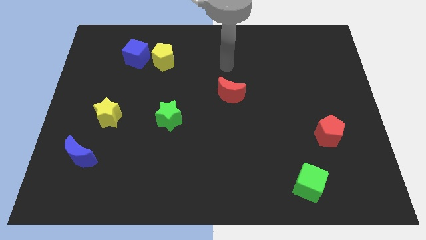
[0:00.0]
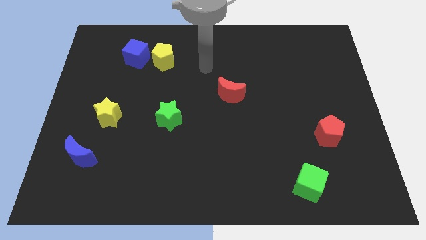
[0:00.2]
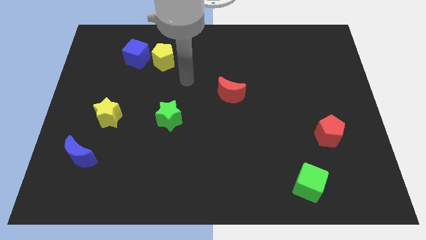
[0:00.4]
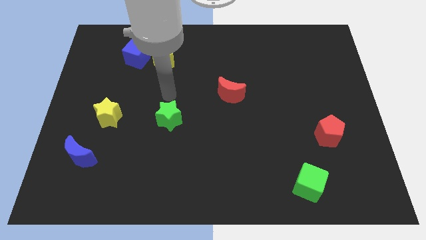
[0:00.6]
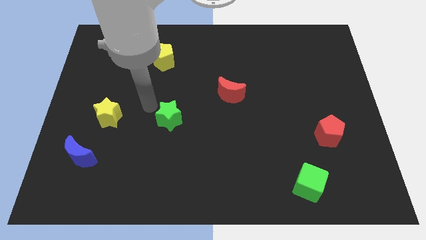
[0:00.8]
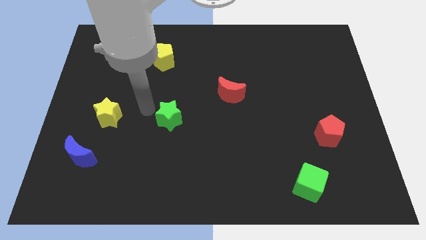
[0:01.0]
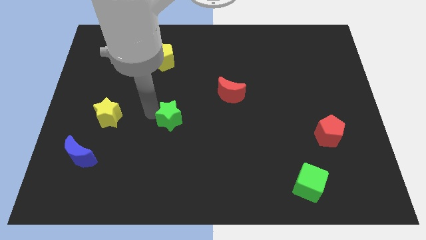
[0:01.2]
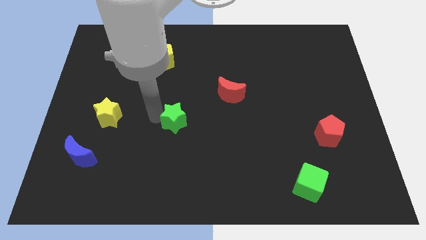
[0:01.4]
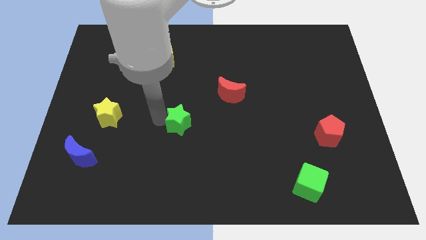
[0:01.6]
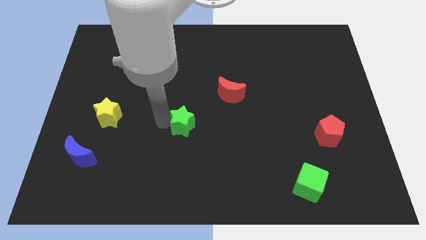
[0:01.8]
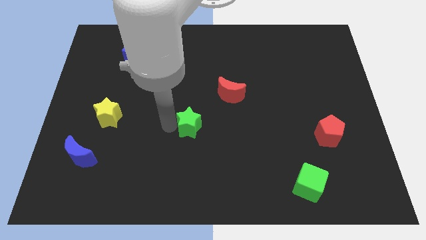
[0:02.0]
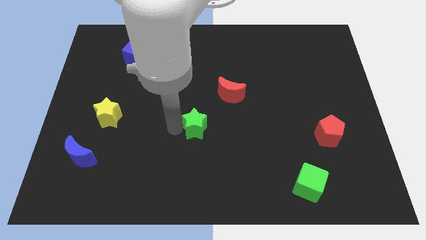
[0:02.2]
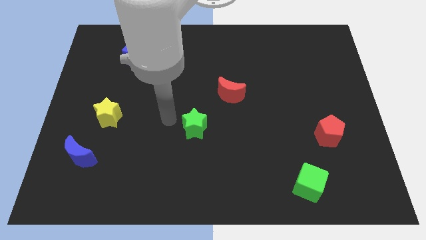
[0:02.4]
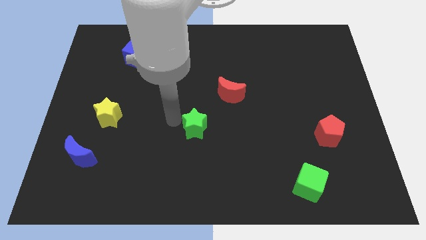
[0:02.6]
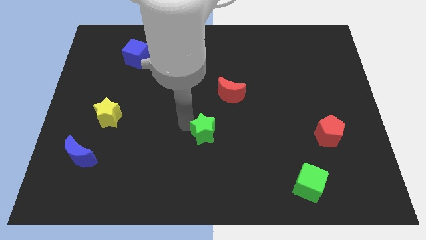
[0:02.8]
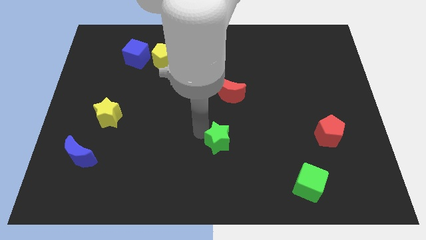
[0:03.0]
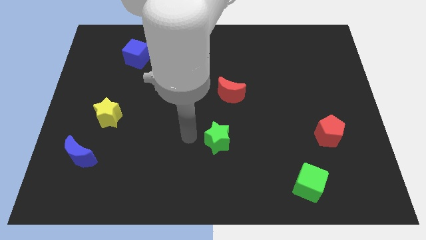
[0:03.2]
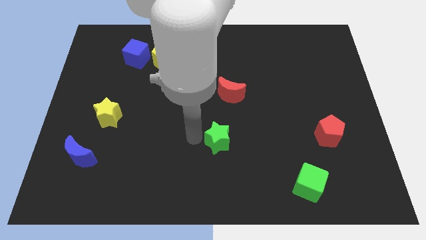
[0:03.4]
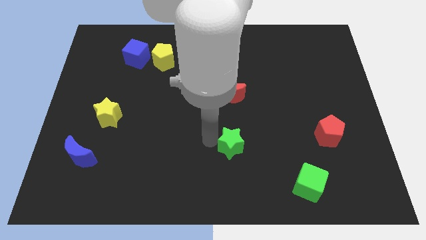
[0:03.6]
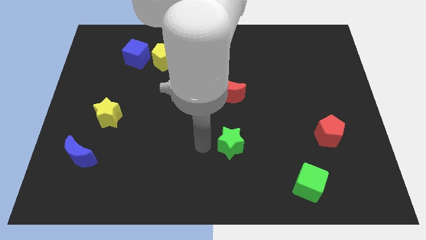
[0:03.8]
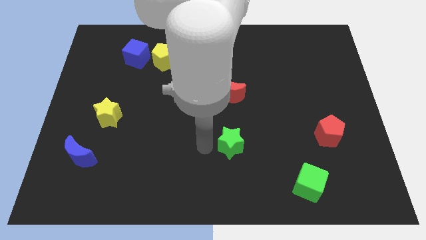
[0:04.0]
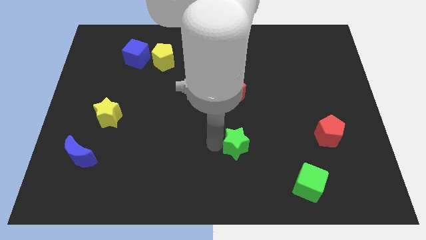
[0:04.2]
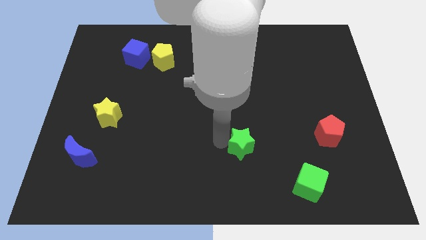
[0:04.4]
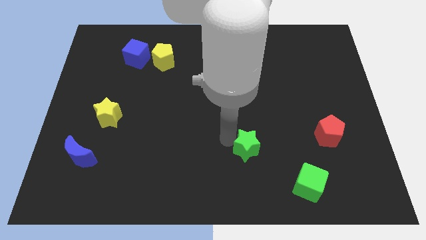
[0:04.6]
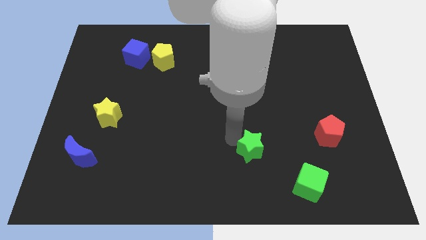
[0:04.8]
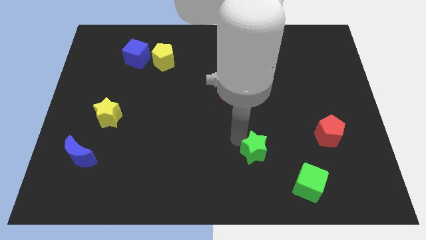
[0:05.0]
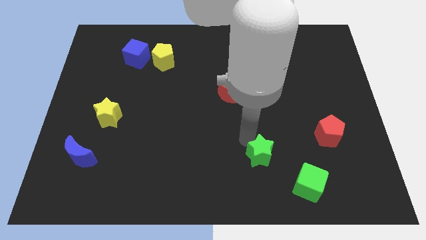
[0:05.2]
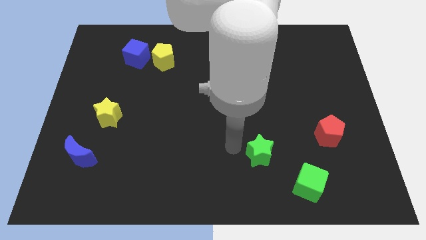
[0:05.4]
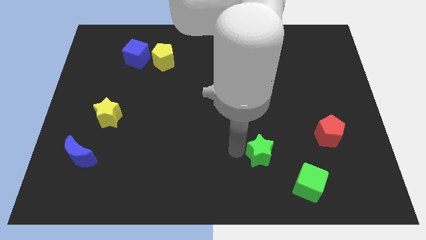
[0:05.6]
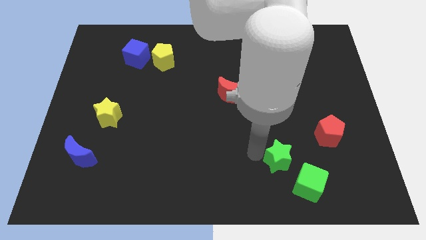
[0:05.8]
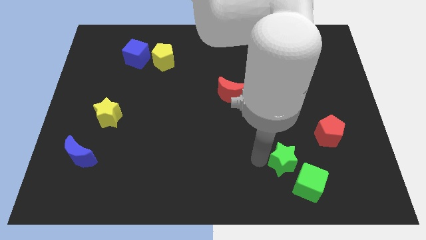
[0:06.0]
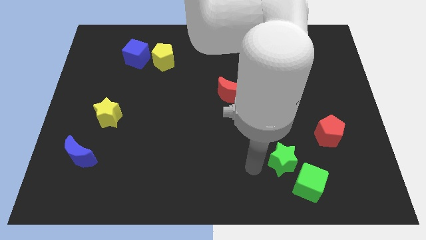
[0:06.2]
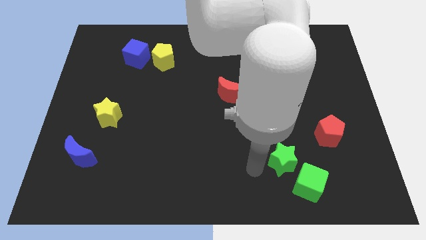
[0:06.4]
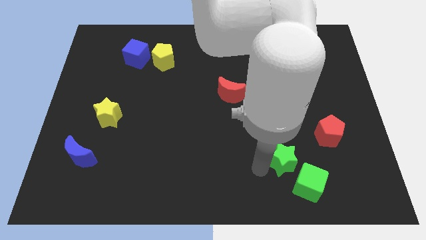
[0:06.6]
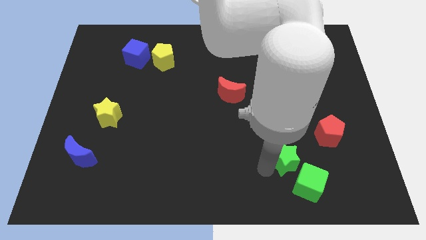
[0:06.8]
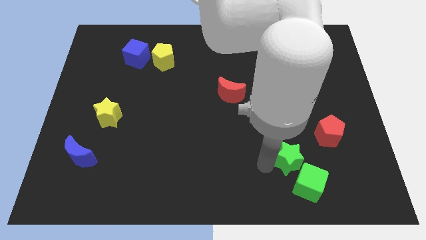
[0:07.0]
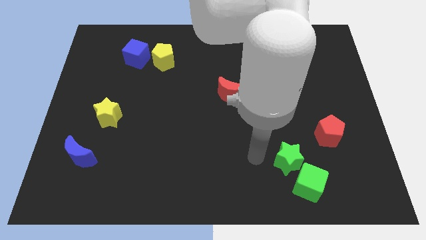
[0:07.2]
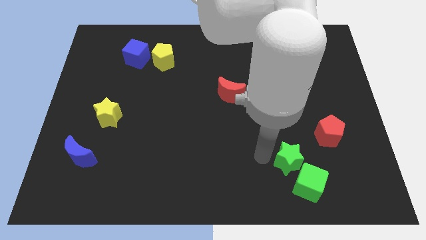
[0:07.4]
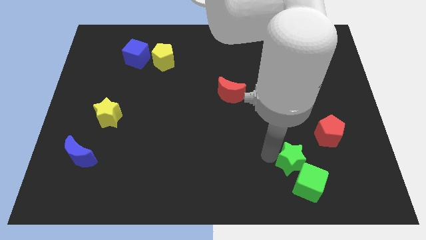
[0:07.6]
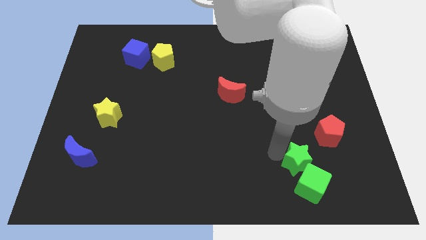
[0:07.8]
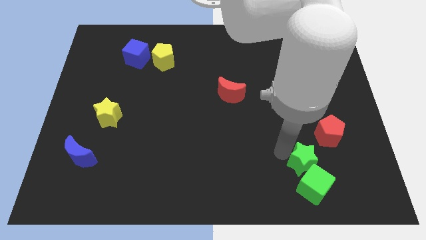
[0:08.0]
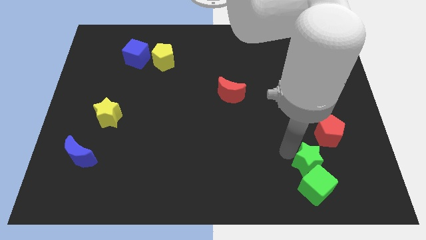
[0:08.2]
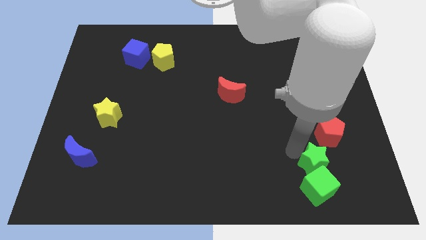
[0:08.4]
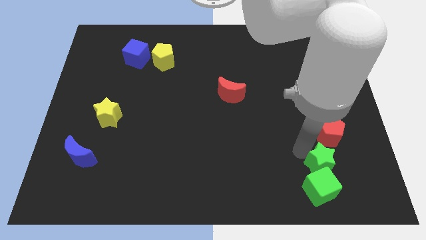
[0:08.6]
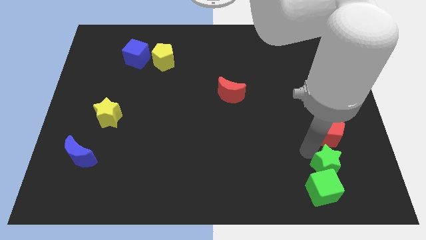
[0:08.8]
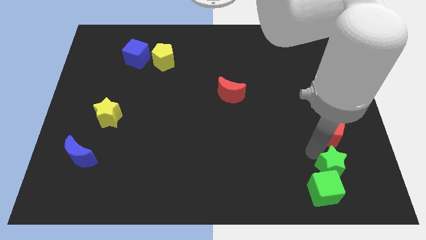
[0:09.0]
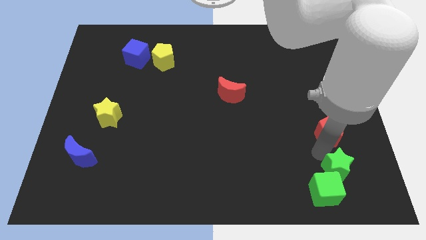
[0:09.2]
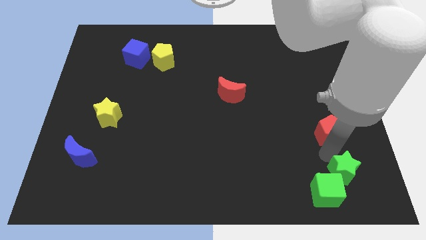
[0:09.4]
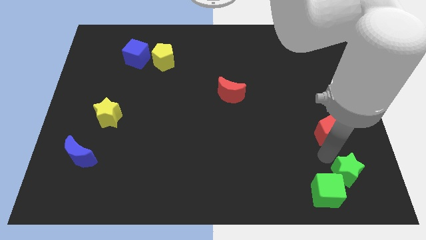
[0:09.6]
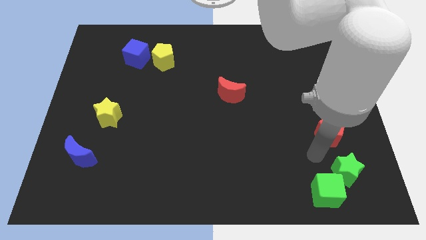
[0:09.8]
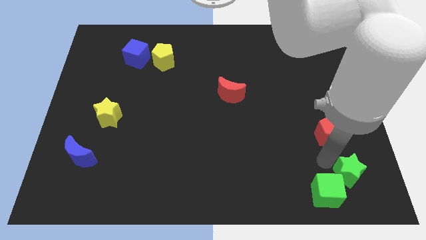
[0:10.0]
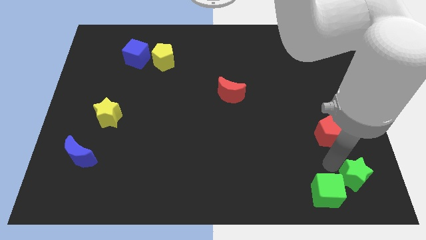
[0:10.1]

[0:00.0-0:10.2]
put the green star to the bottom right
